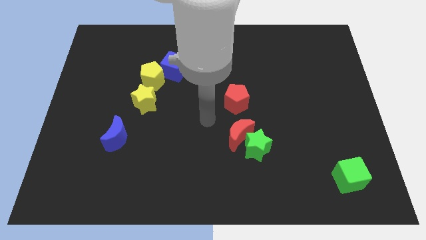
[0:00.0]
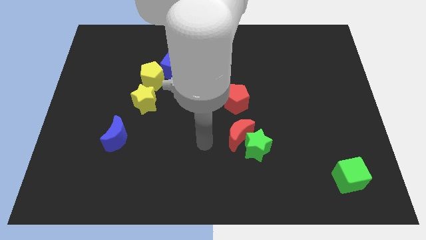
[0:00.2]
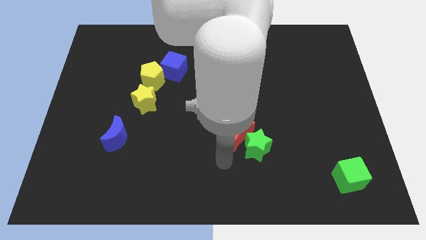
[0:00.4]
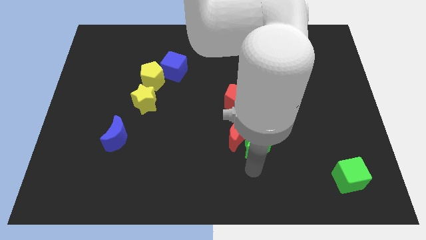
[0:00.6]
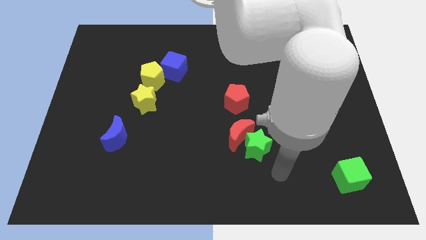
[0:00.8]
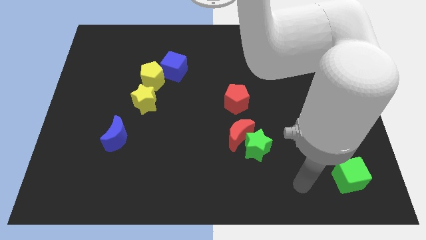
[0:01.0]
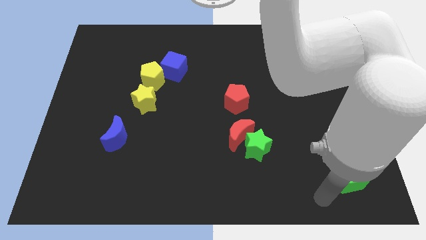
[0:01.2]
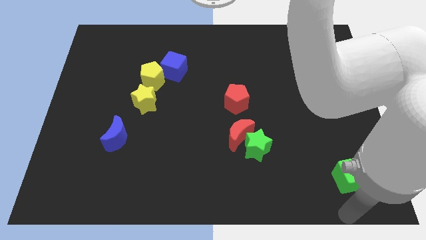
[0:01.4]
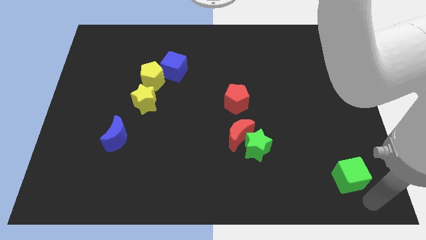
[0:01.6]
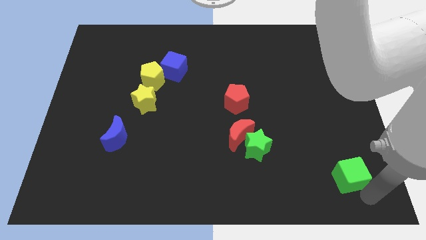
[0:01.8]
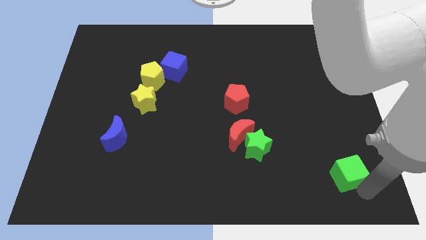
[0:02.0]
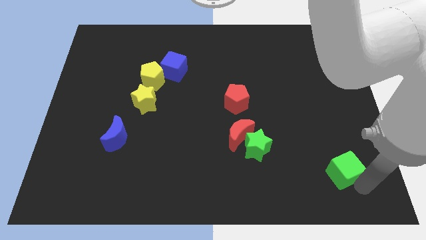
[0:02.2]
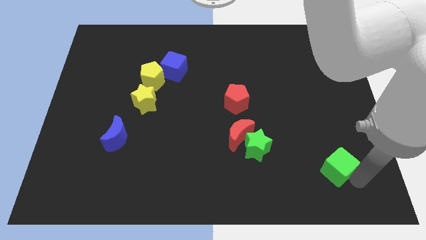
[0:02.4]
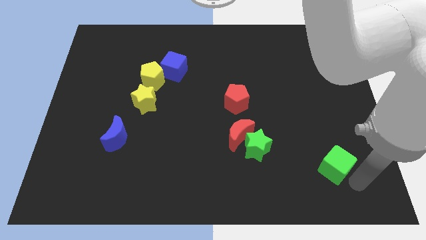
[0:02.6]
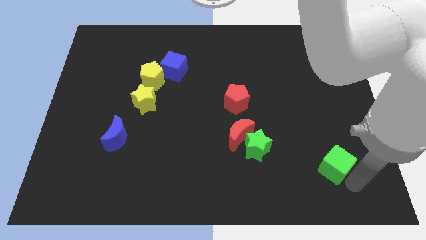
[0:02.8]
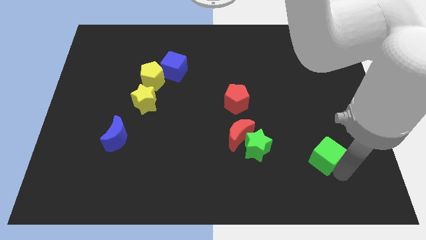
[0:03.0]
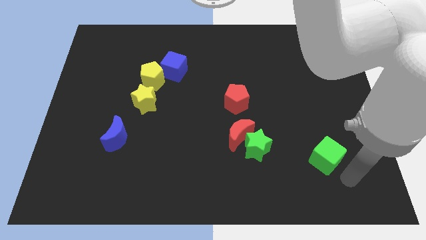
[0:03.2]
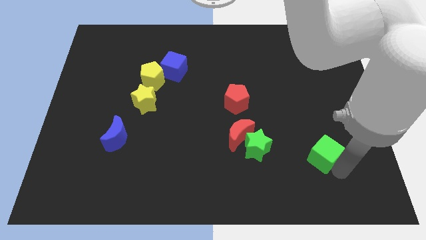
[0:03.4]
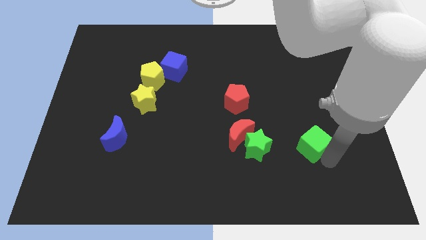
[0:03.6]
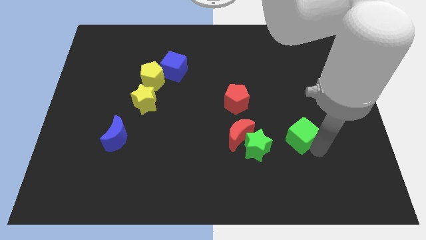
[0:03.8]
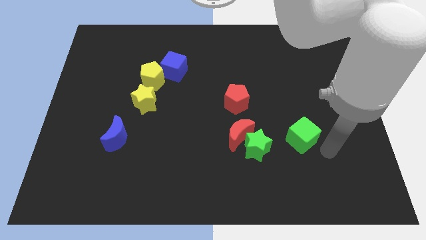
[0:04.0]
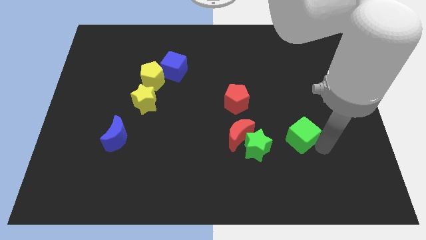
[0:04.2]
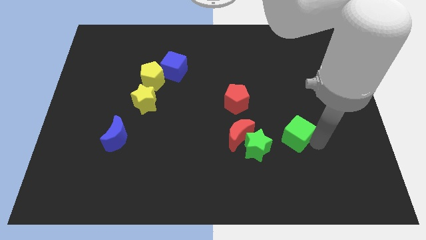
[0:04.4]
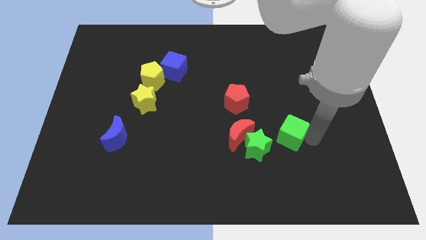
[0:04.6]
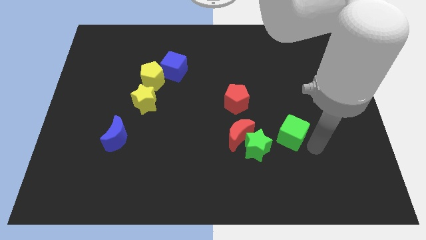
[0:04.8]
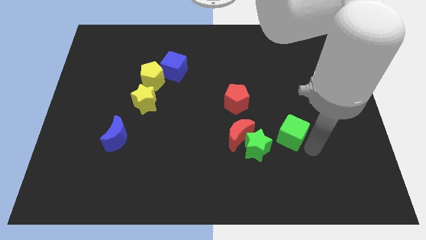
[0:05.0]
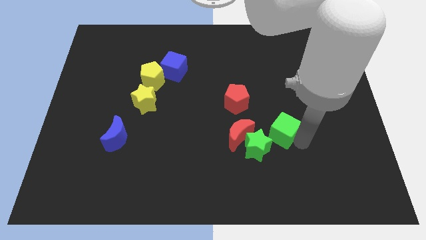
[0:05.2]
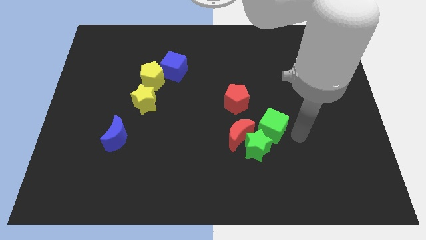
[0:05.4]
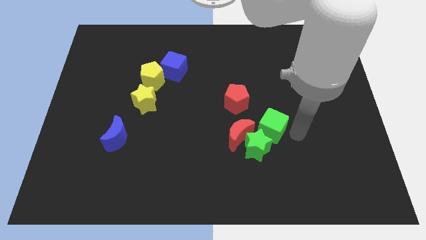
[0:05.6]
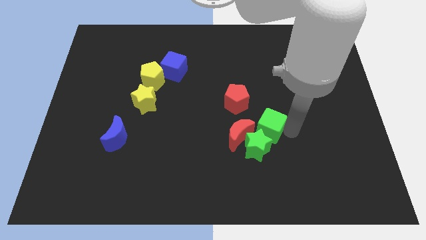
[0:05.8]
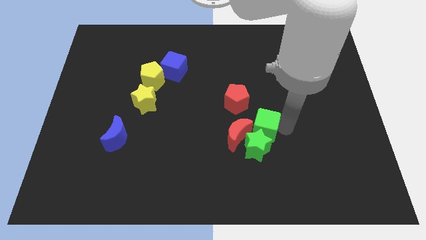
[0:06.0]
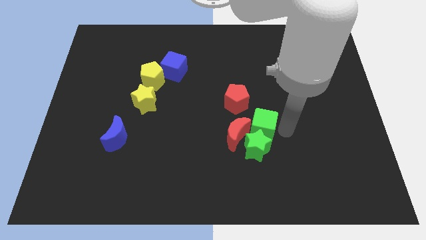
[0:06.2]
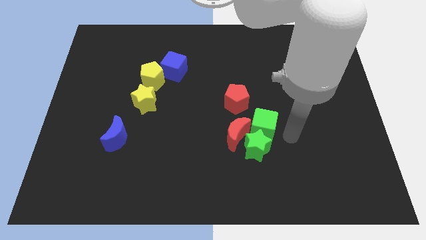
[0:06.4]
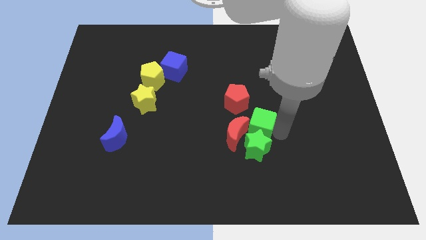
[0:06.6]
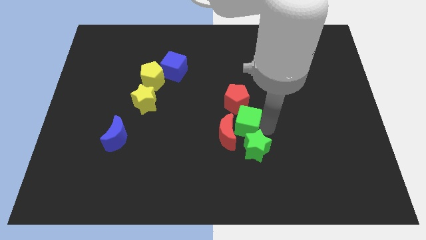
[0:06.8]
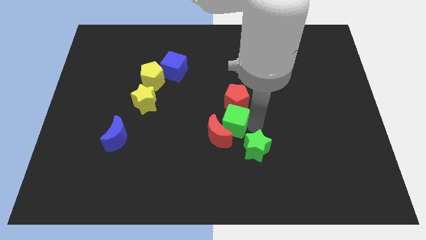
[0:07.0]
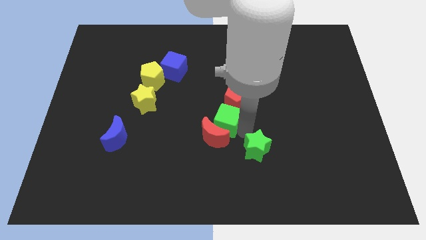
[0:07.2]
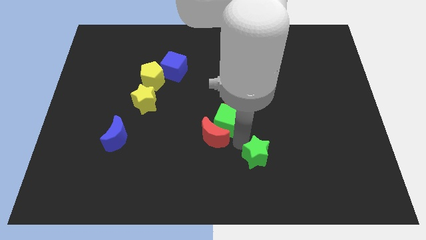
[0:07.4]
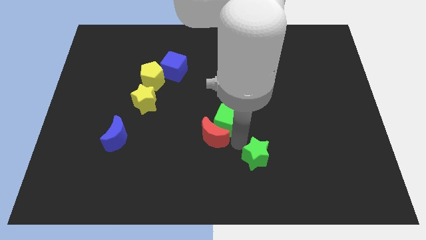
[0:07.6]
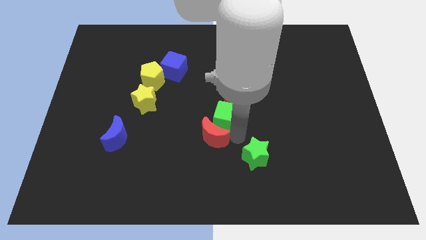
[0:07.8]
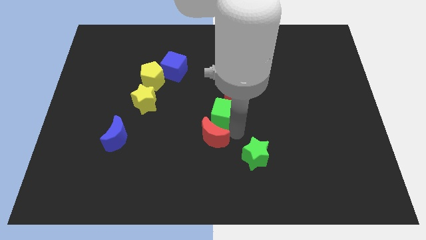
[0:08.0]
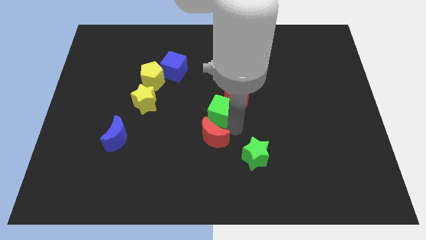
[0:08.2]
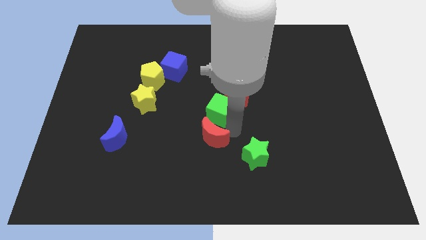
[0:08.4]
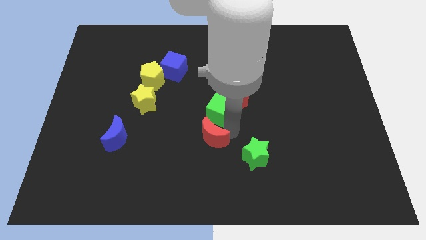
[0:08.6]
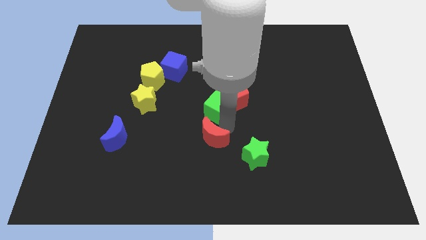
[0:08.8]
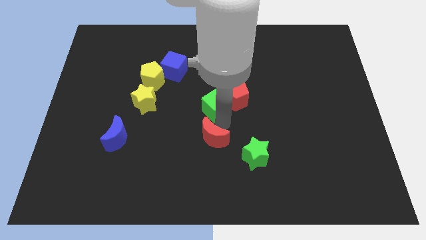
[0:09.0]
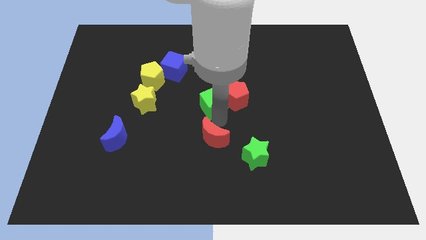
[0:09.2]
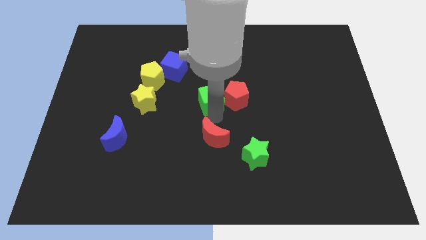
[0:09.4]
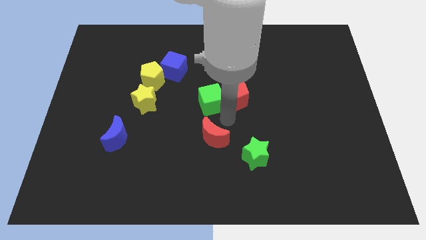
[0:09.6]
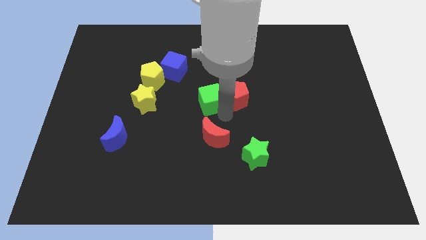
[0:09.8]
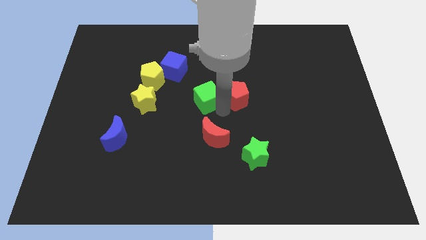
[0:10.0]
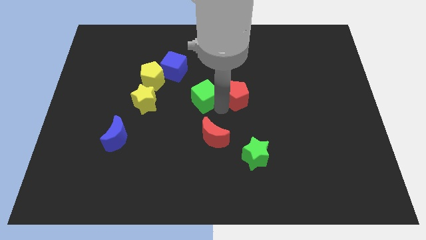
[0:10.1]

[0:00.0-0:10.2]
slide the green cube diagonally down and to the right of the blue cube

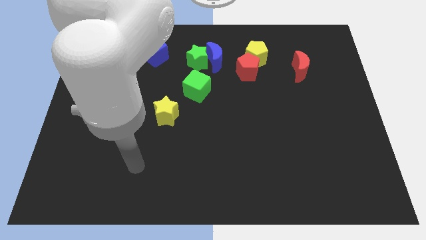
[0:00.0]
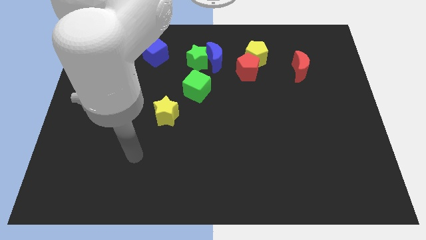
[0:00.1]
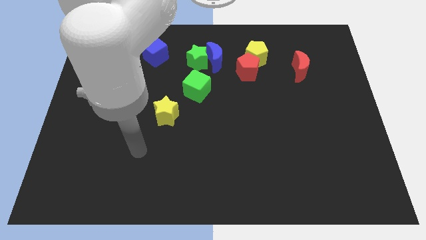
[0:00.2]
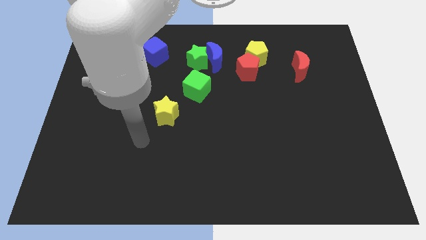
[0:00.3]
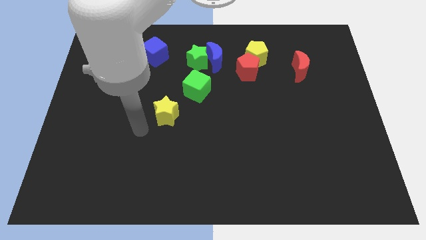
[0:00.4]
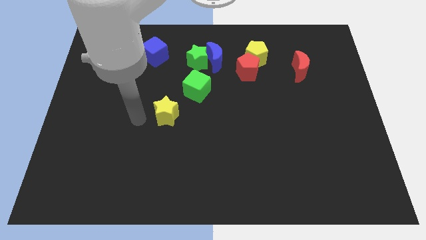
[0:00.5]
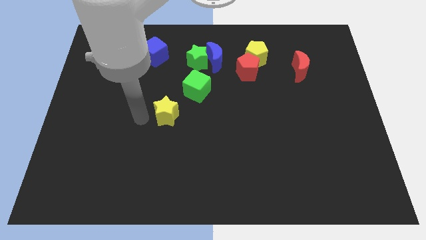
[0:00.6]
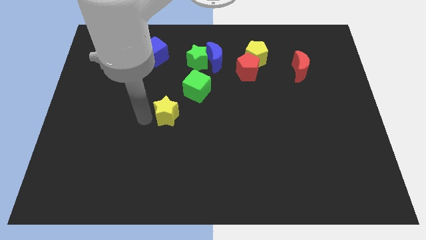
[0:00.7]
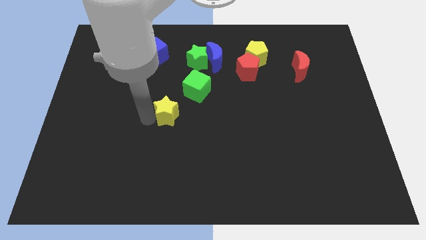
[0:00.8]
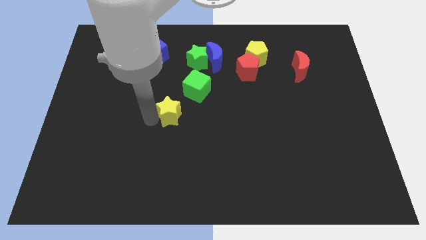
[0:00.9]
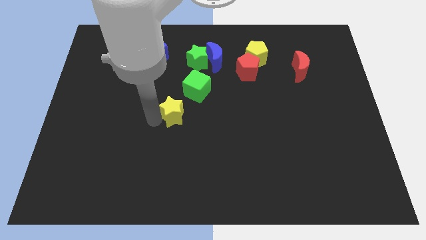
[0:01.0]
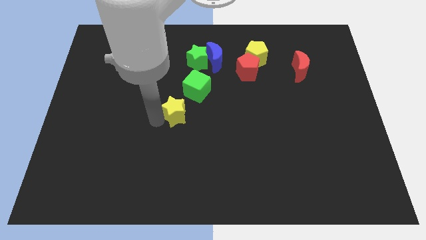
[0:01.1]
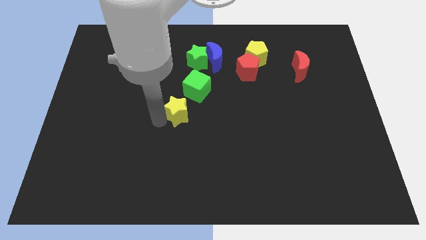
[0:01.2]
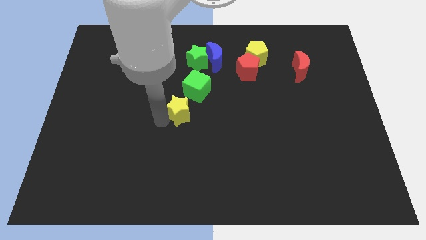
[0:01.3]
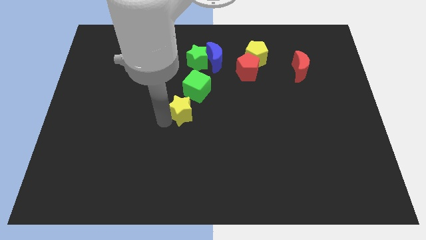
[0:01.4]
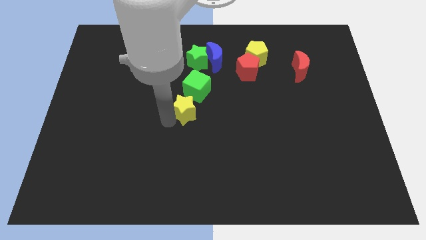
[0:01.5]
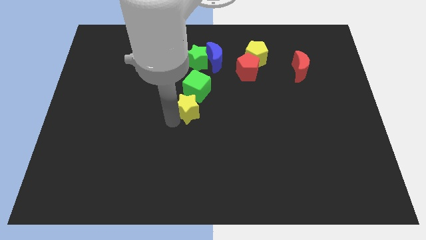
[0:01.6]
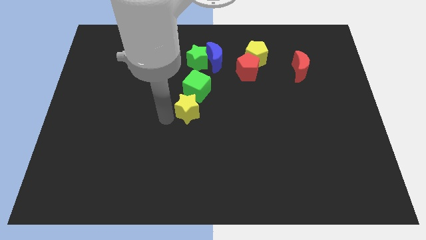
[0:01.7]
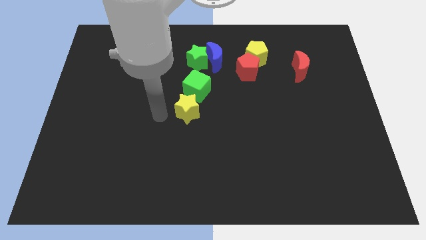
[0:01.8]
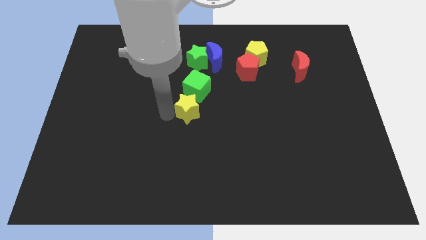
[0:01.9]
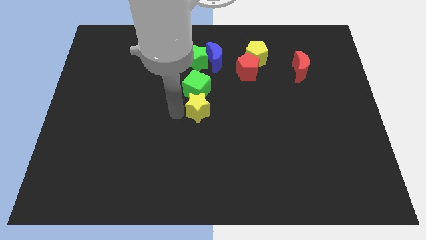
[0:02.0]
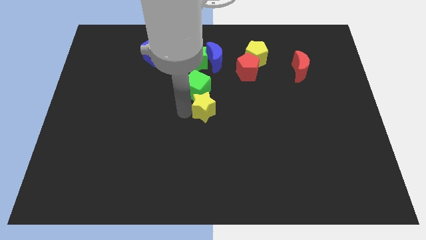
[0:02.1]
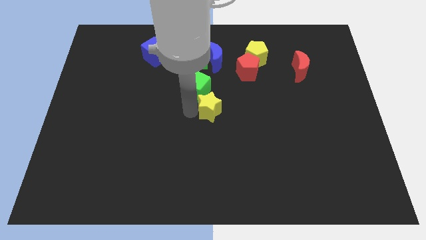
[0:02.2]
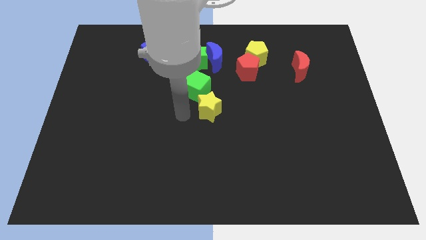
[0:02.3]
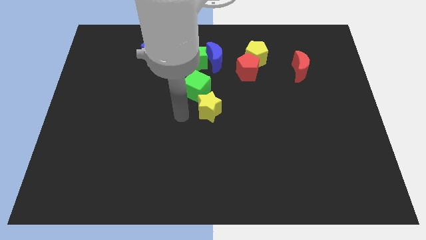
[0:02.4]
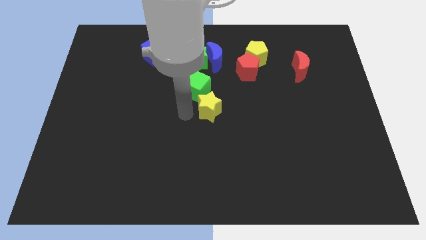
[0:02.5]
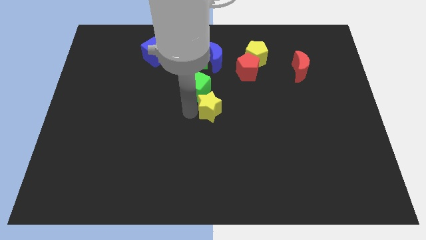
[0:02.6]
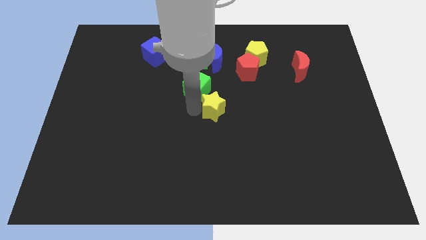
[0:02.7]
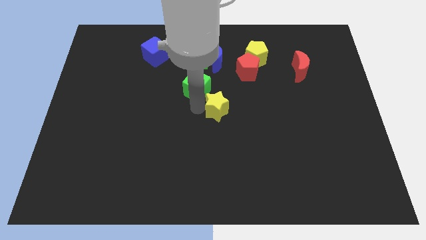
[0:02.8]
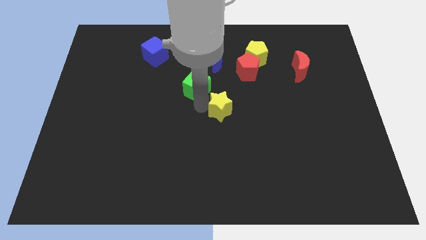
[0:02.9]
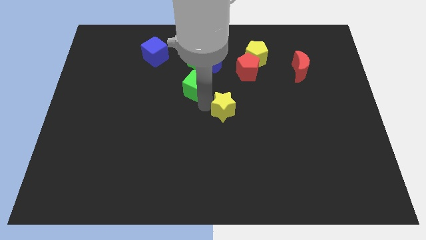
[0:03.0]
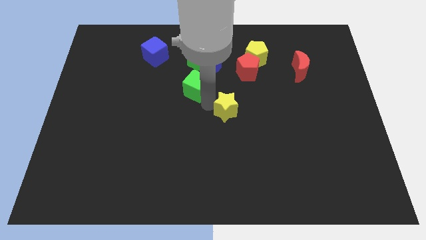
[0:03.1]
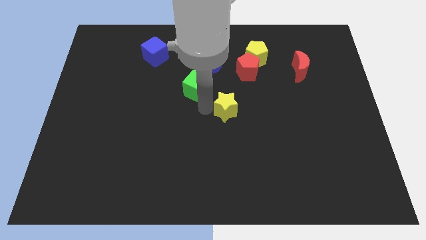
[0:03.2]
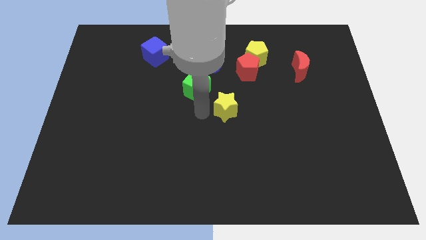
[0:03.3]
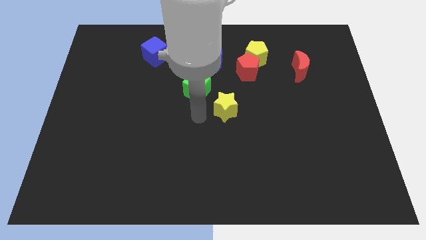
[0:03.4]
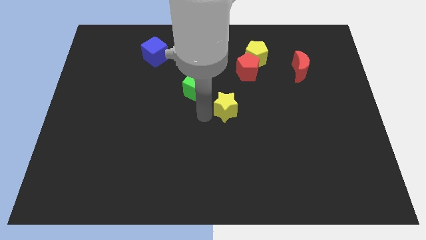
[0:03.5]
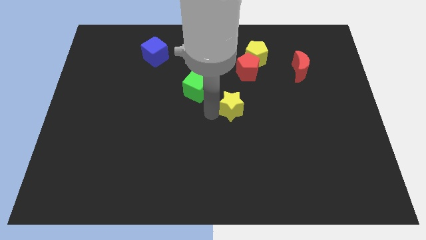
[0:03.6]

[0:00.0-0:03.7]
move the yellow star below the red pentagon
